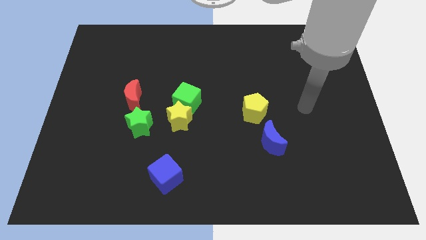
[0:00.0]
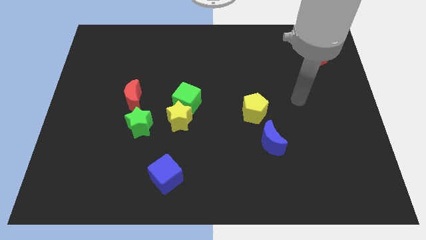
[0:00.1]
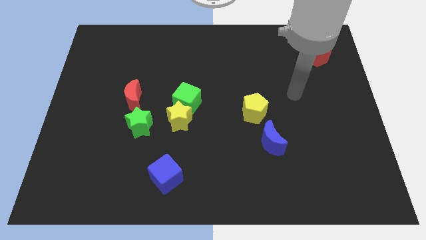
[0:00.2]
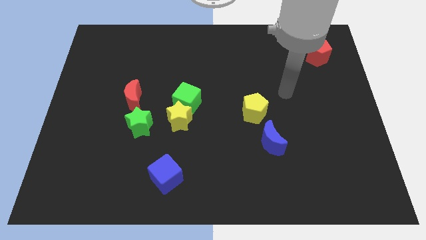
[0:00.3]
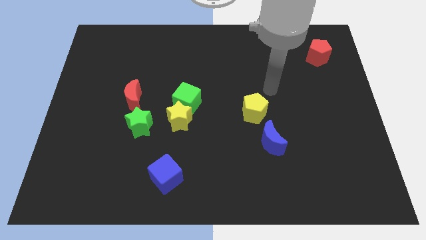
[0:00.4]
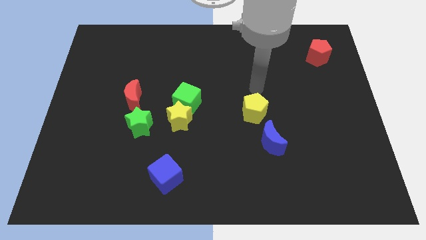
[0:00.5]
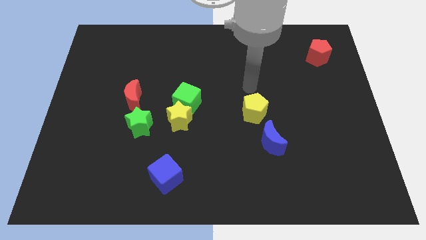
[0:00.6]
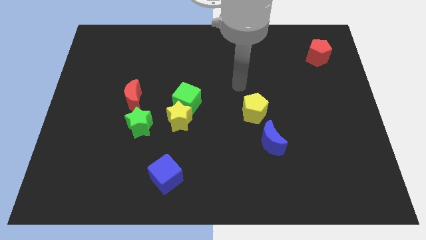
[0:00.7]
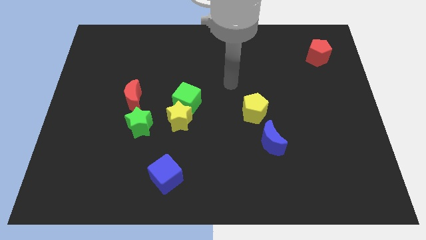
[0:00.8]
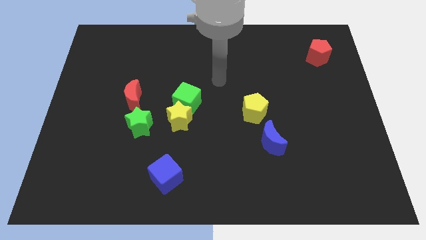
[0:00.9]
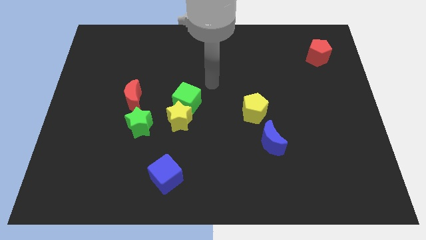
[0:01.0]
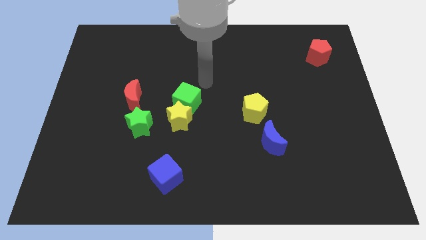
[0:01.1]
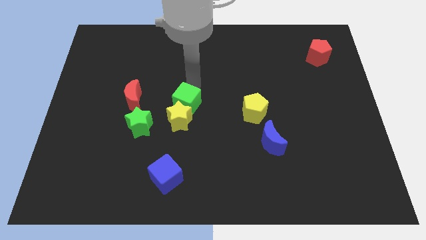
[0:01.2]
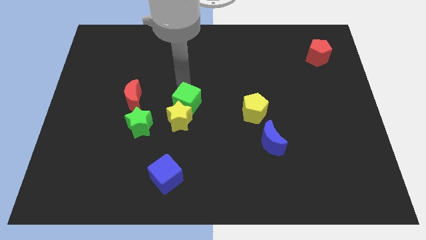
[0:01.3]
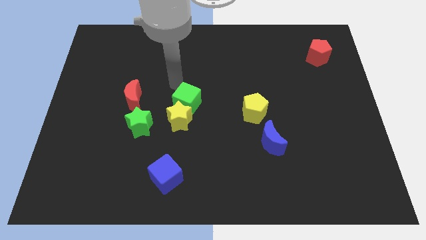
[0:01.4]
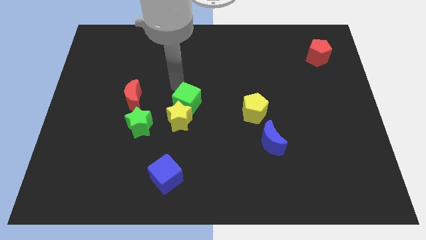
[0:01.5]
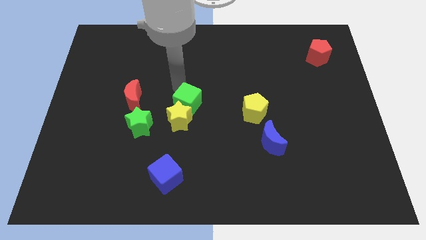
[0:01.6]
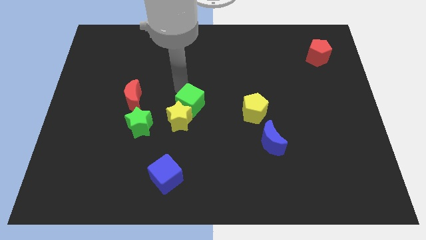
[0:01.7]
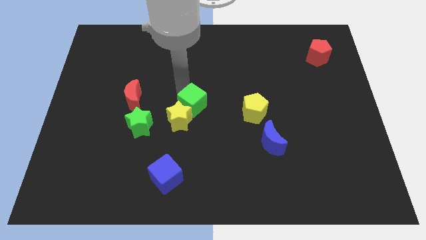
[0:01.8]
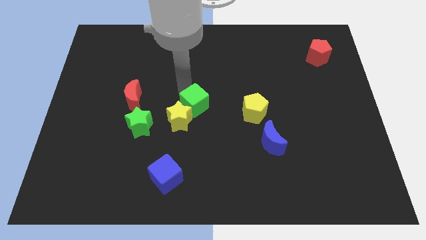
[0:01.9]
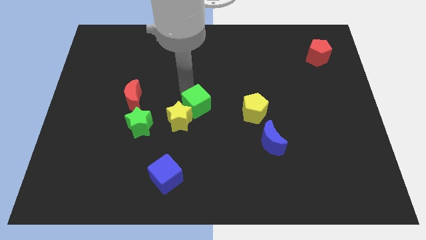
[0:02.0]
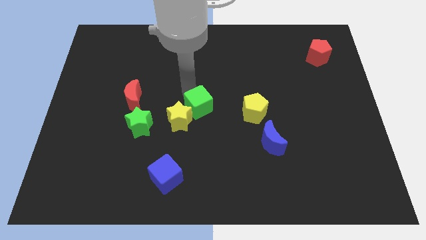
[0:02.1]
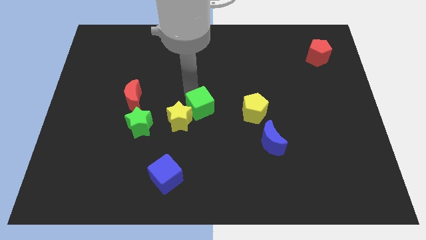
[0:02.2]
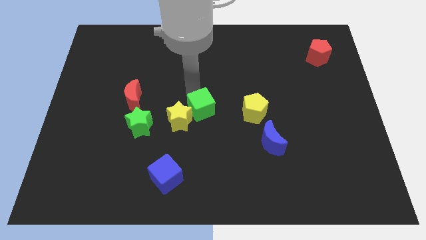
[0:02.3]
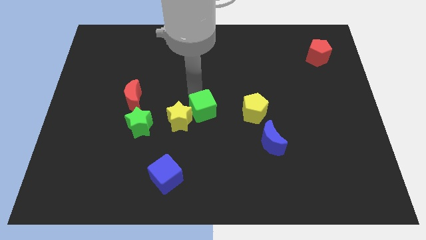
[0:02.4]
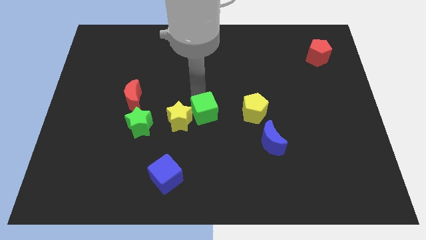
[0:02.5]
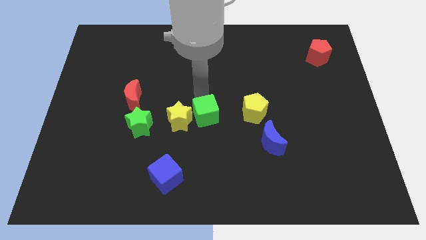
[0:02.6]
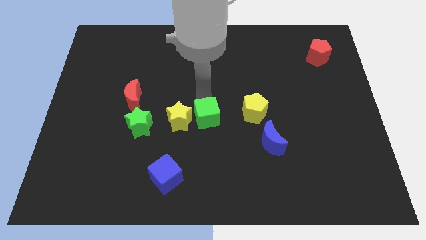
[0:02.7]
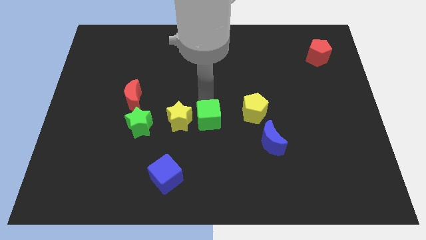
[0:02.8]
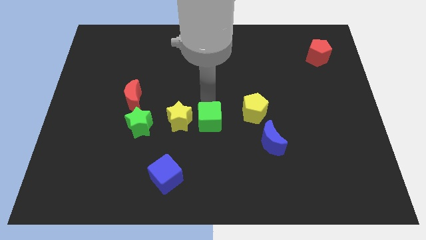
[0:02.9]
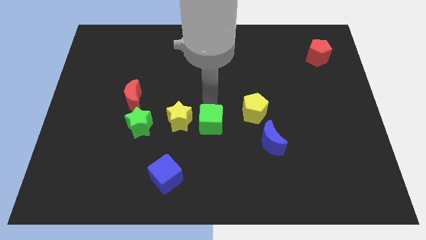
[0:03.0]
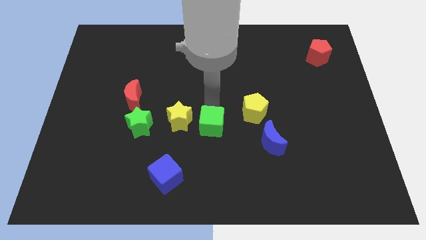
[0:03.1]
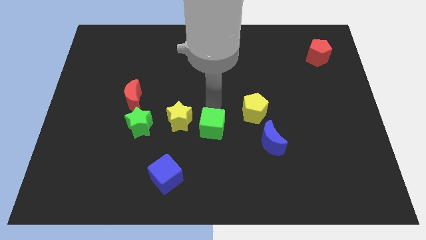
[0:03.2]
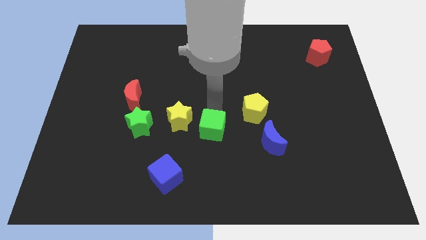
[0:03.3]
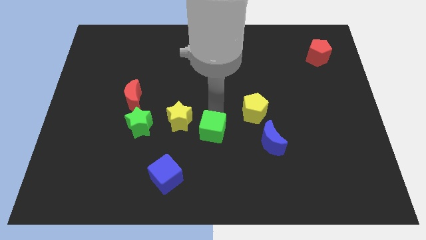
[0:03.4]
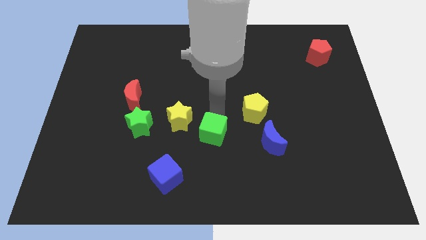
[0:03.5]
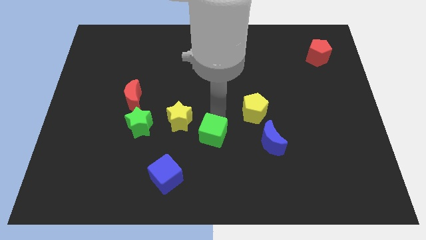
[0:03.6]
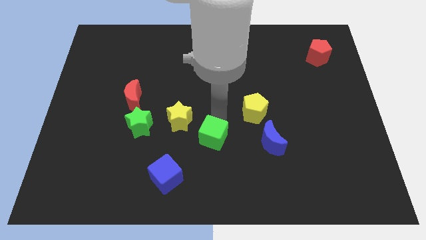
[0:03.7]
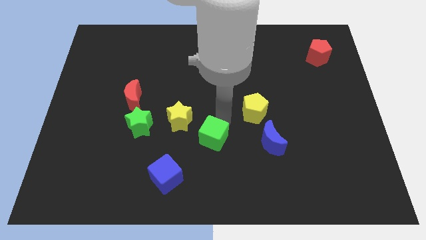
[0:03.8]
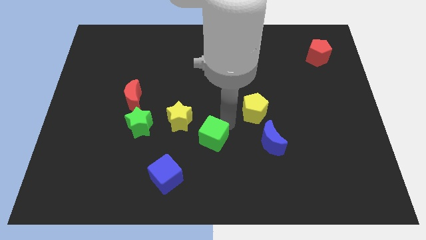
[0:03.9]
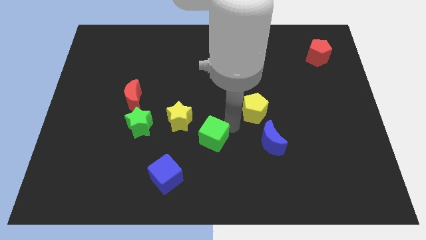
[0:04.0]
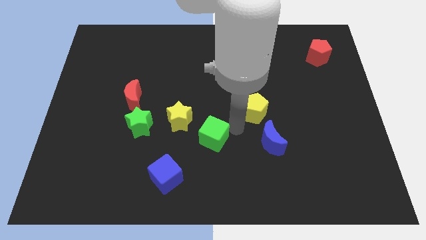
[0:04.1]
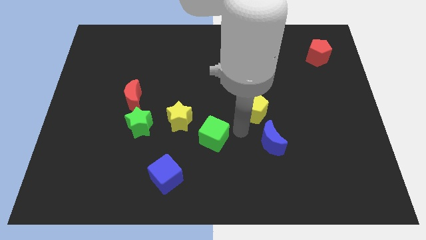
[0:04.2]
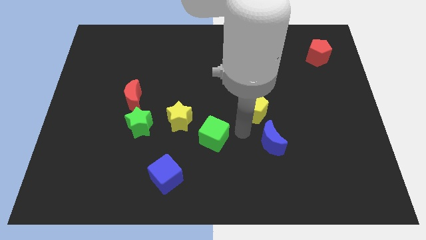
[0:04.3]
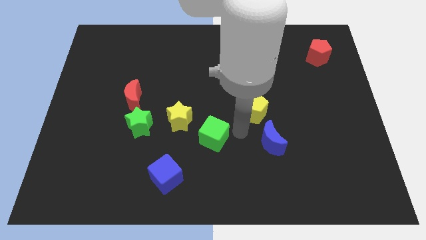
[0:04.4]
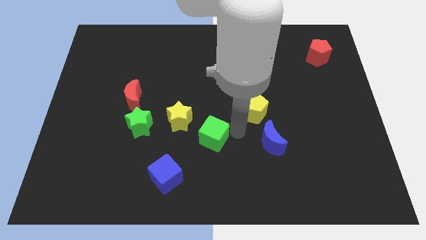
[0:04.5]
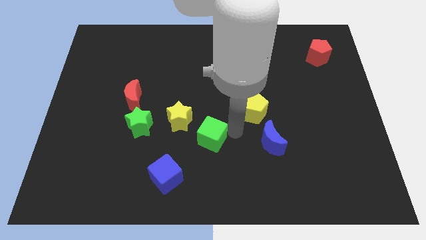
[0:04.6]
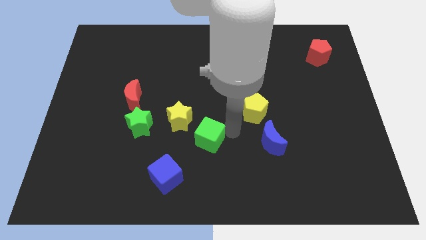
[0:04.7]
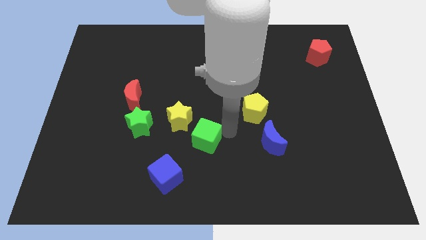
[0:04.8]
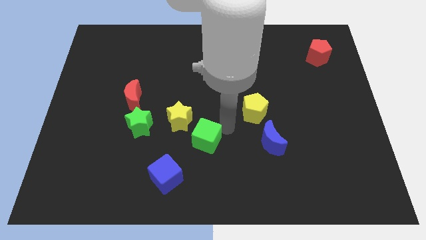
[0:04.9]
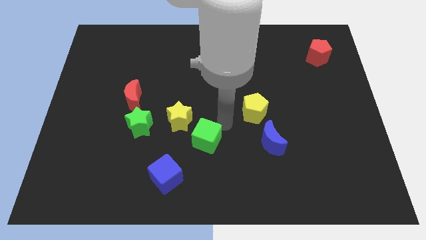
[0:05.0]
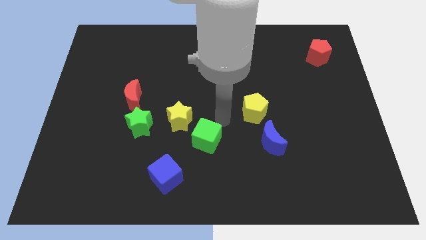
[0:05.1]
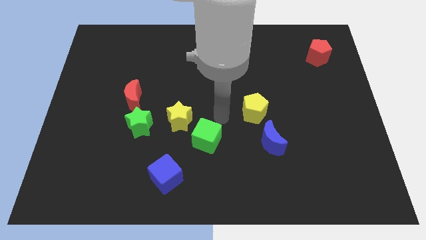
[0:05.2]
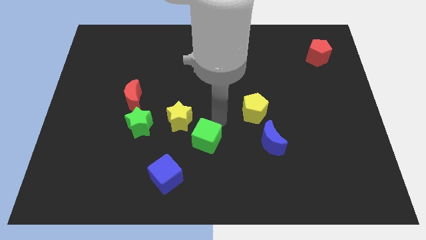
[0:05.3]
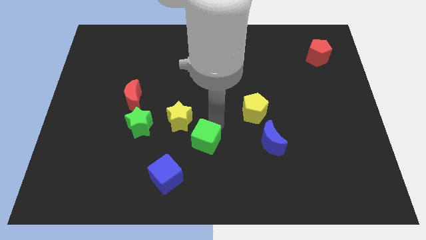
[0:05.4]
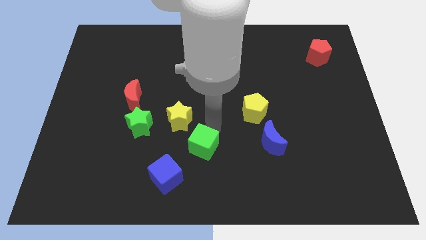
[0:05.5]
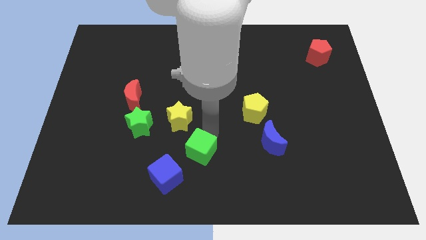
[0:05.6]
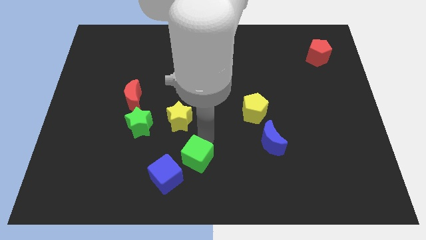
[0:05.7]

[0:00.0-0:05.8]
slide the green cube to the bottom

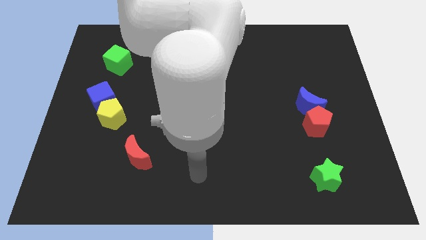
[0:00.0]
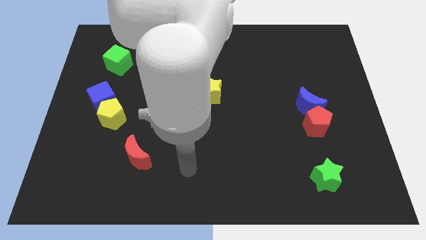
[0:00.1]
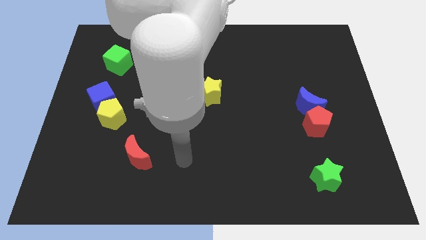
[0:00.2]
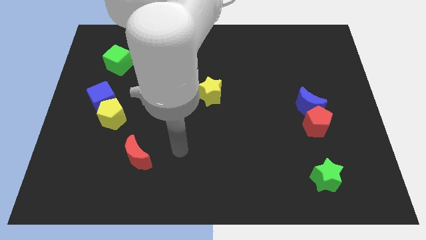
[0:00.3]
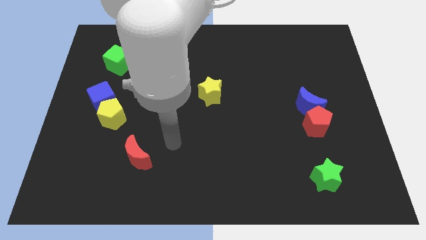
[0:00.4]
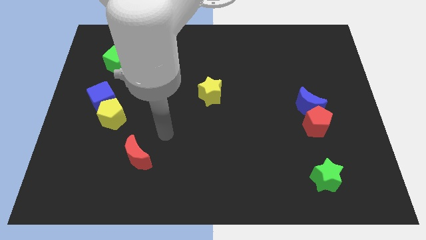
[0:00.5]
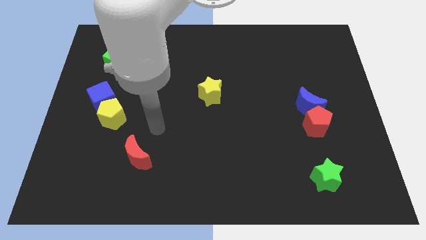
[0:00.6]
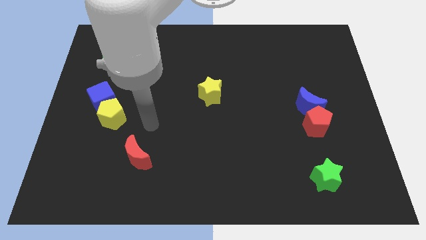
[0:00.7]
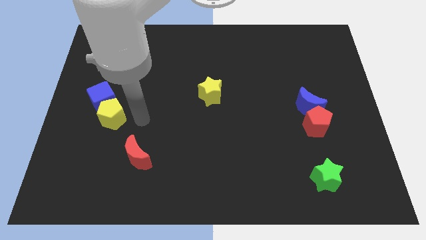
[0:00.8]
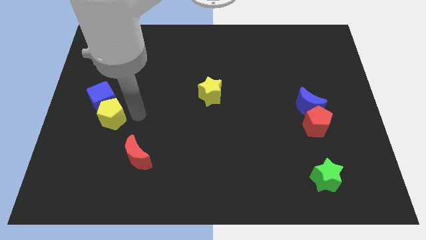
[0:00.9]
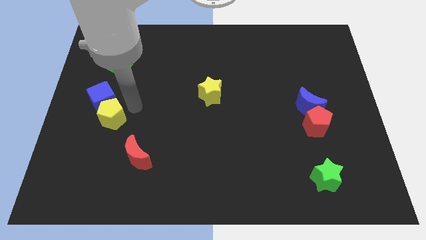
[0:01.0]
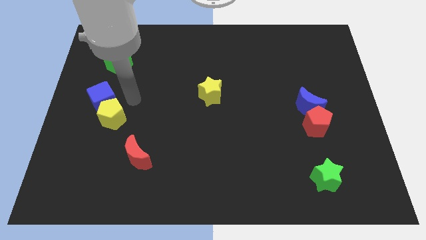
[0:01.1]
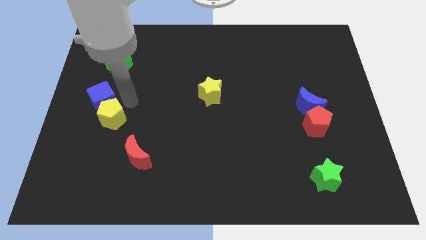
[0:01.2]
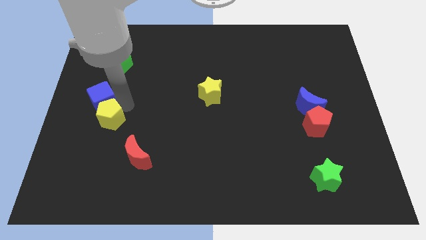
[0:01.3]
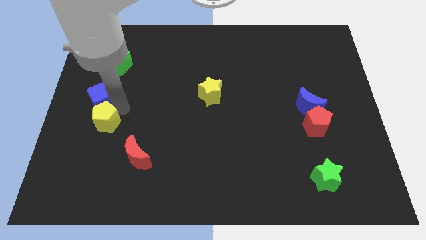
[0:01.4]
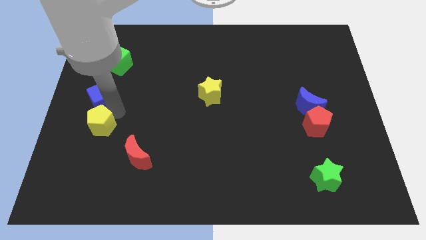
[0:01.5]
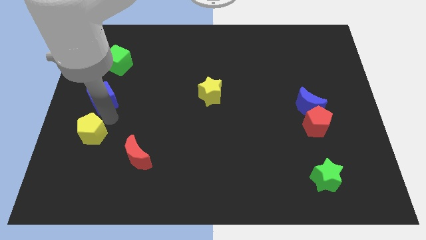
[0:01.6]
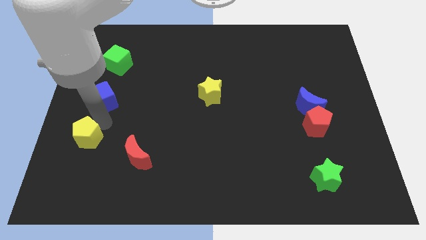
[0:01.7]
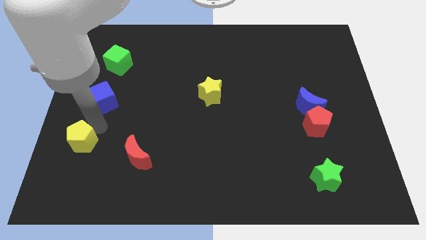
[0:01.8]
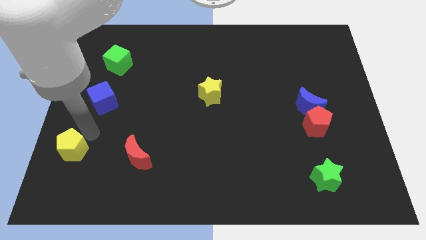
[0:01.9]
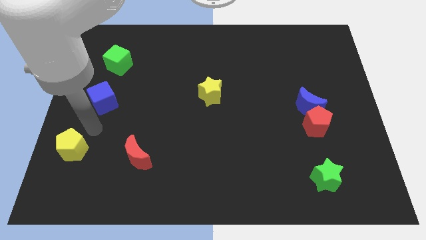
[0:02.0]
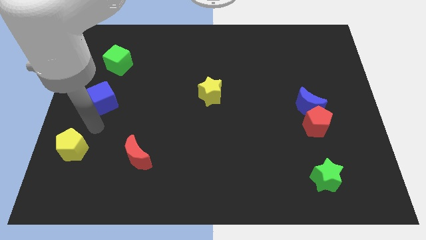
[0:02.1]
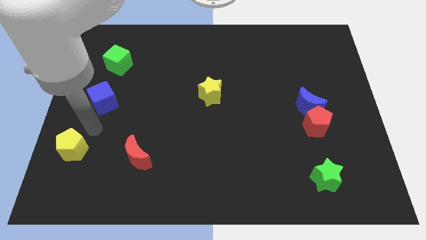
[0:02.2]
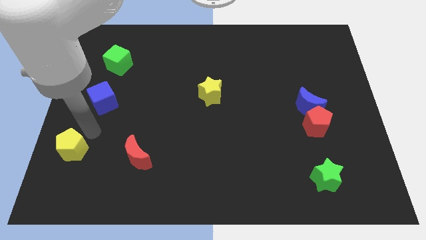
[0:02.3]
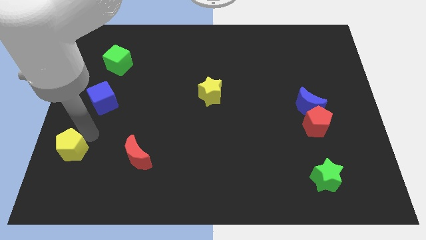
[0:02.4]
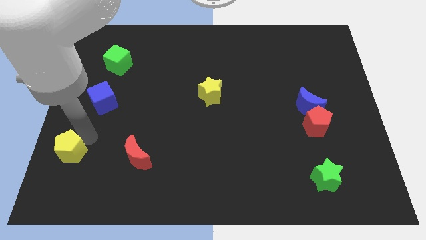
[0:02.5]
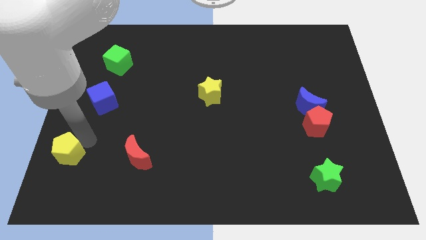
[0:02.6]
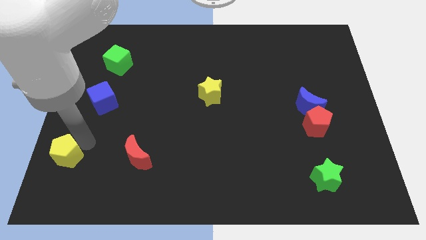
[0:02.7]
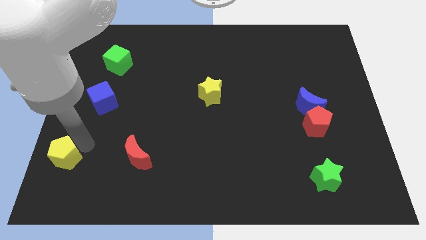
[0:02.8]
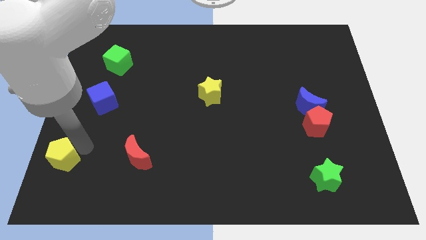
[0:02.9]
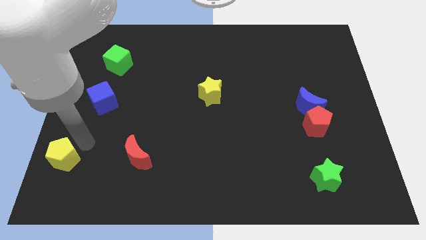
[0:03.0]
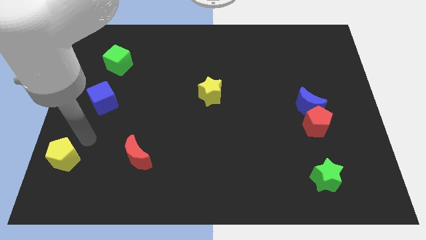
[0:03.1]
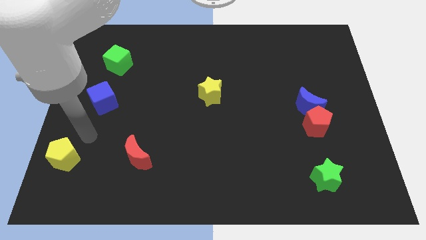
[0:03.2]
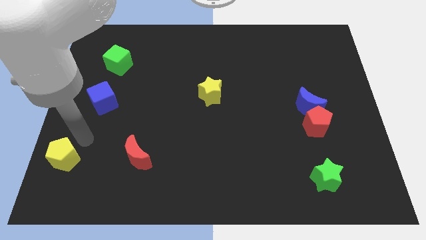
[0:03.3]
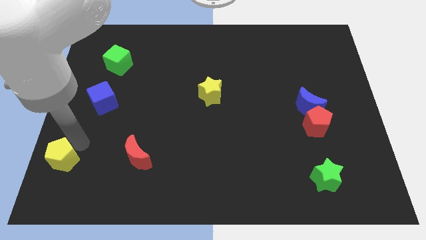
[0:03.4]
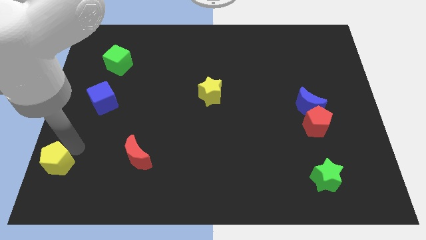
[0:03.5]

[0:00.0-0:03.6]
move the yellow pentagon to the bottom left of the board
